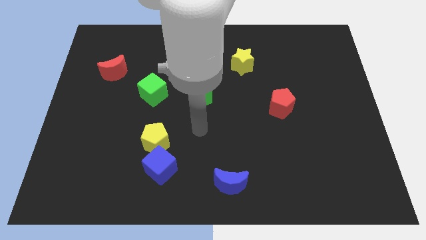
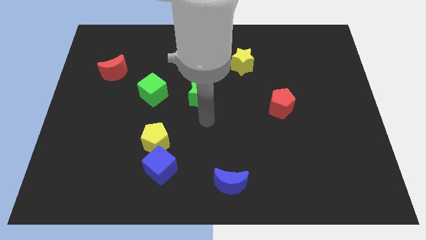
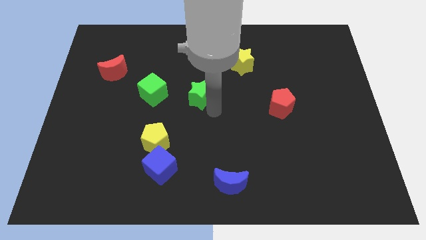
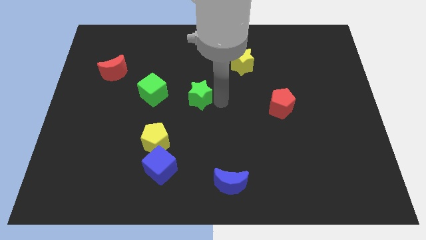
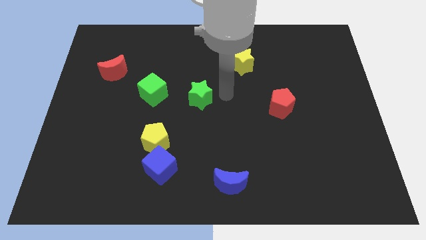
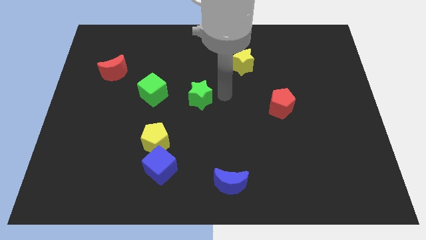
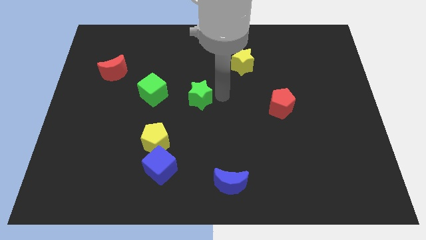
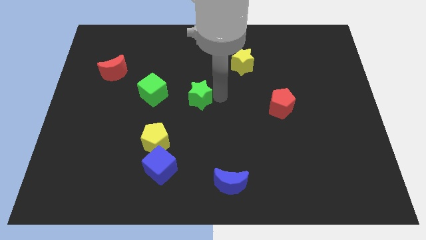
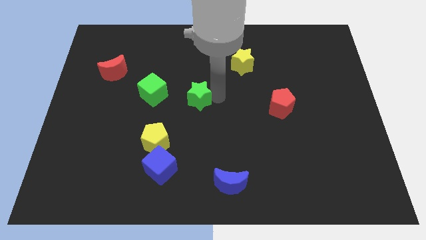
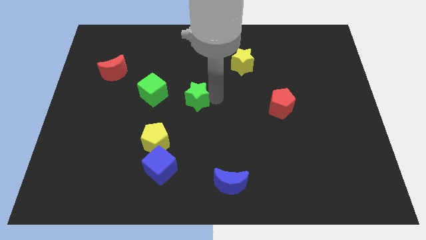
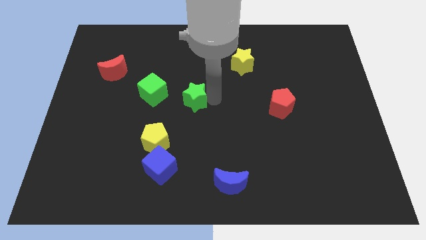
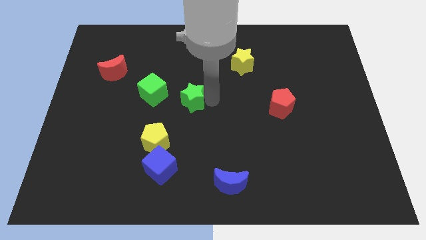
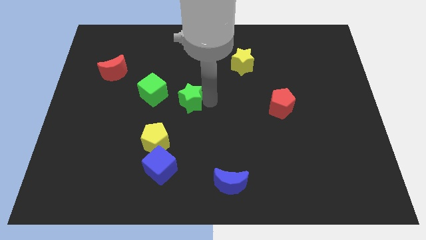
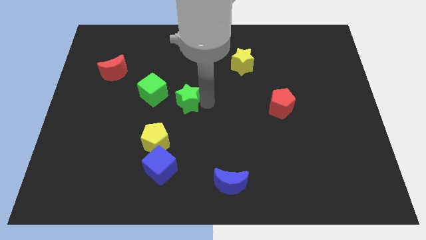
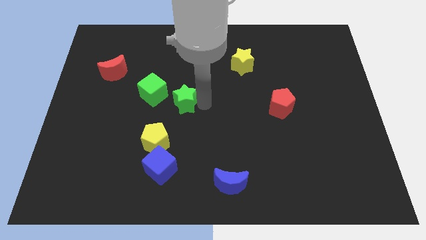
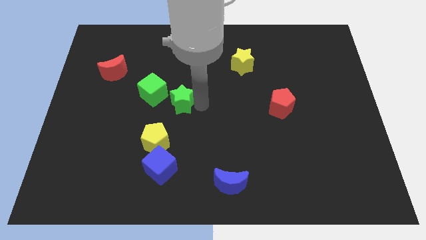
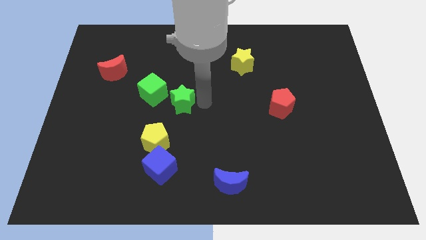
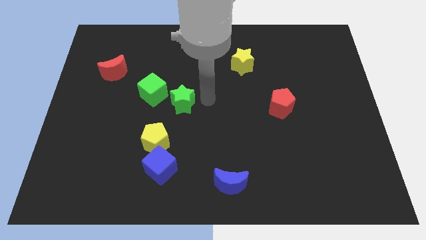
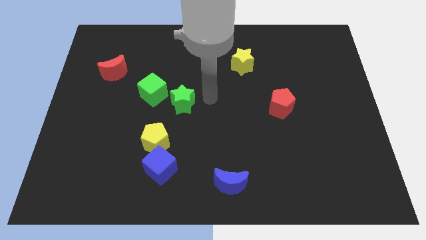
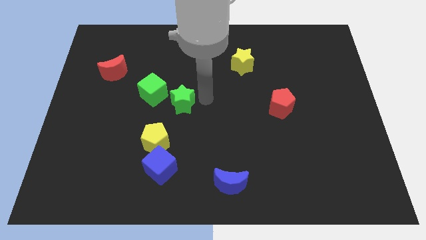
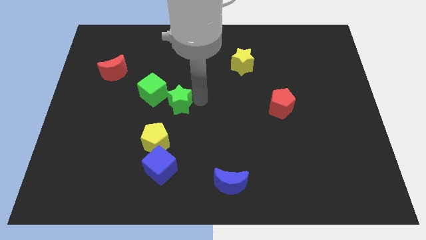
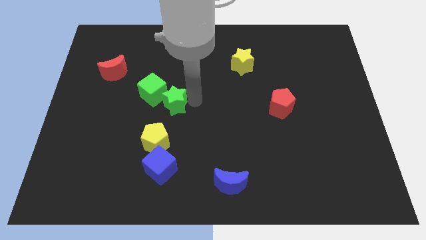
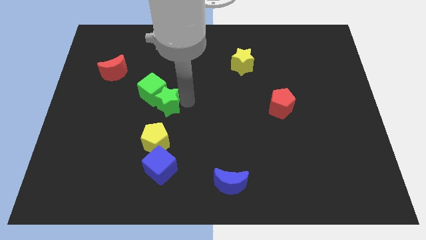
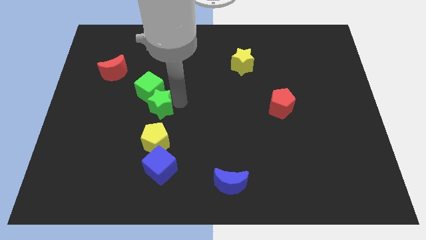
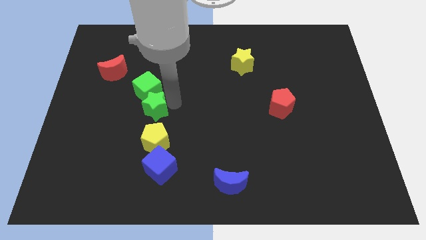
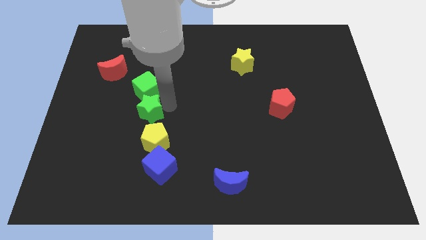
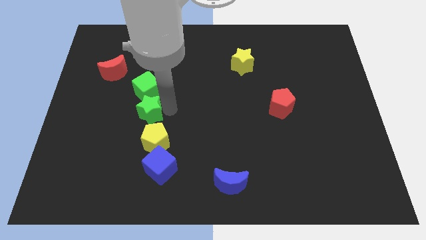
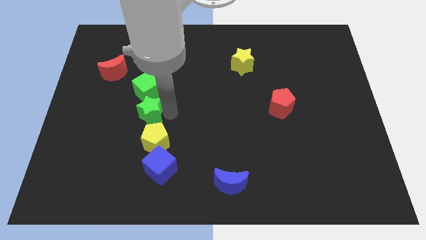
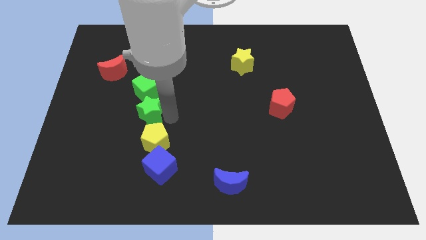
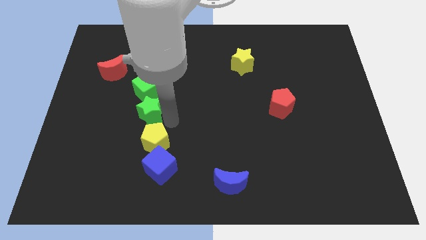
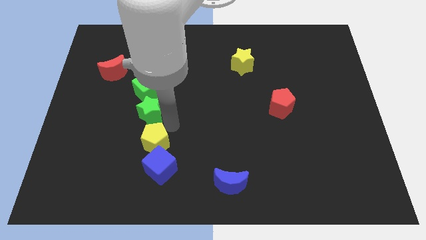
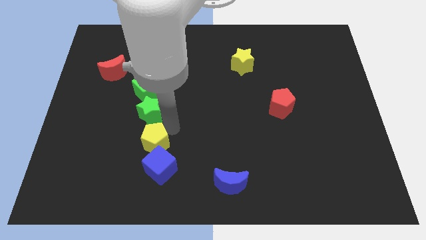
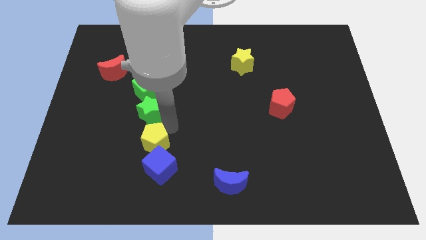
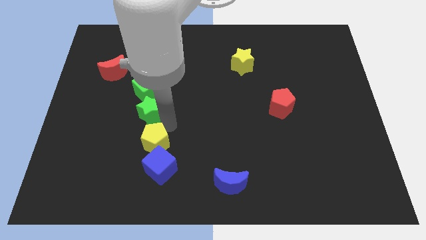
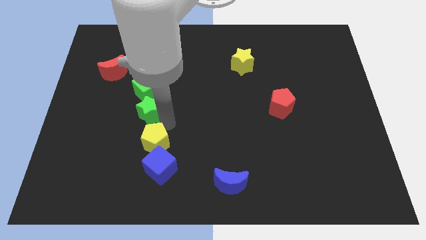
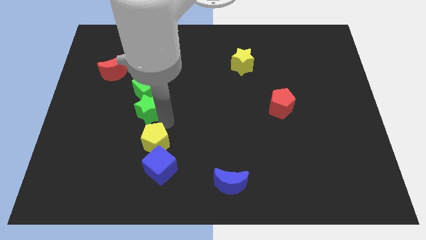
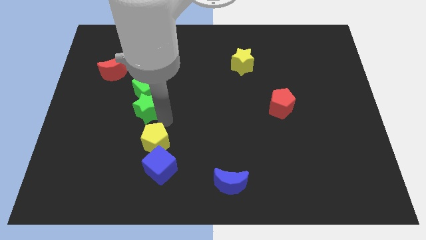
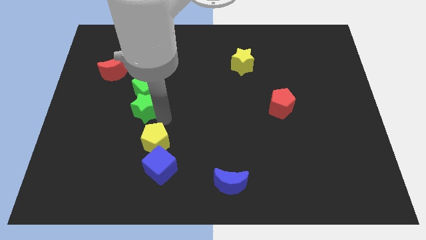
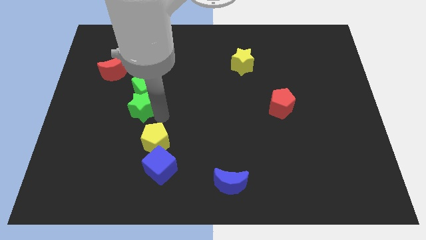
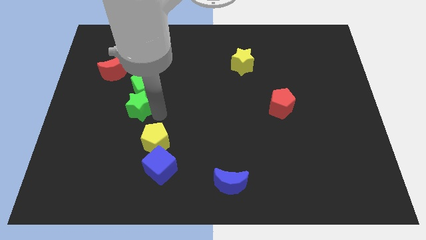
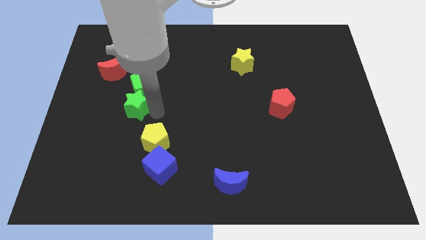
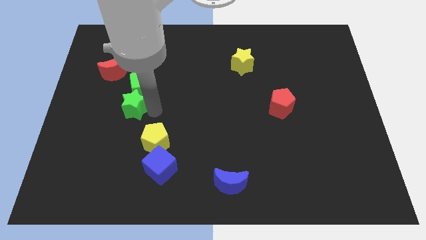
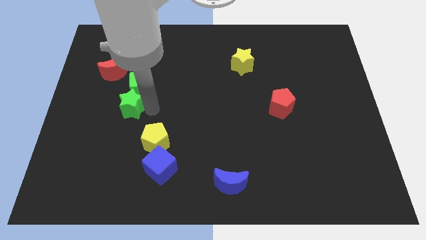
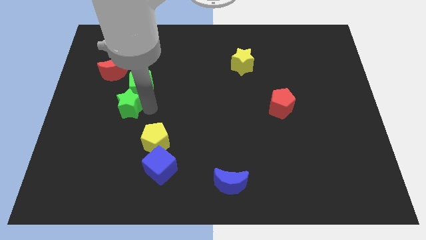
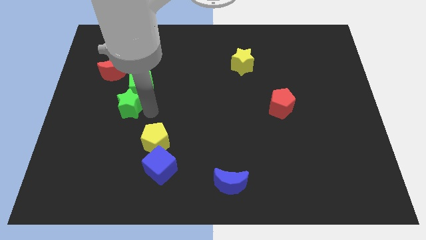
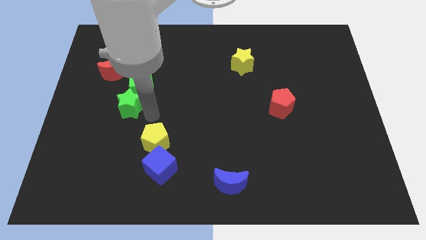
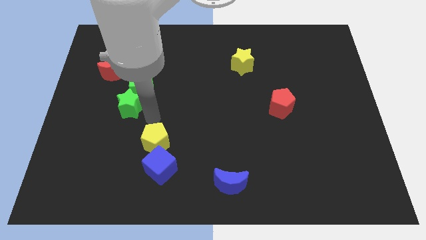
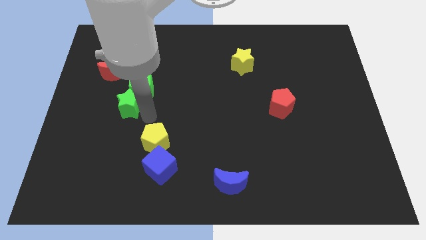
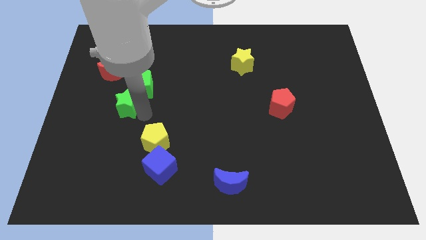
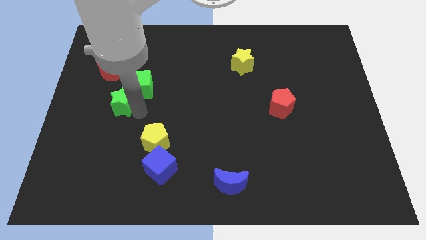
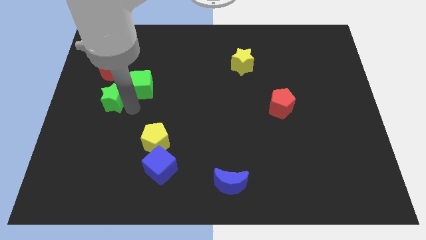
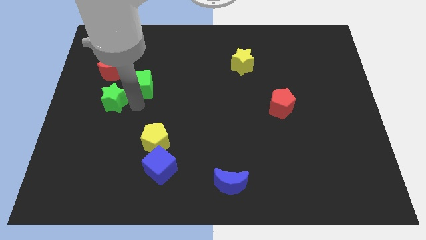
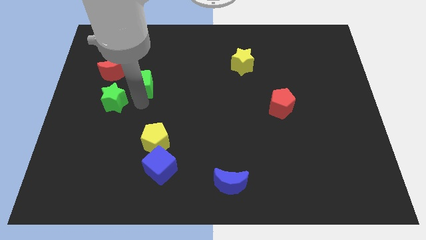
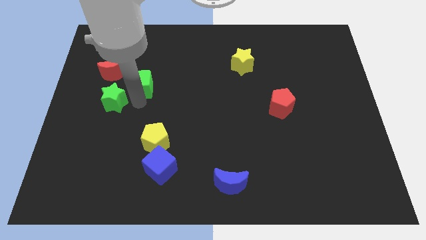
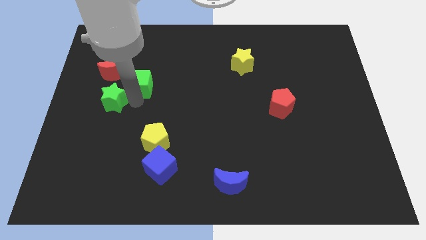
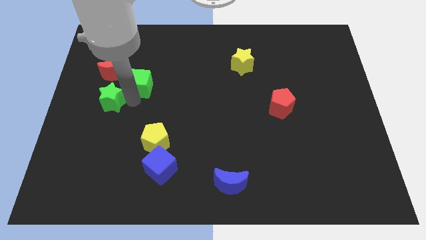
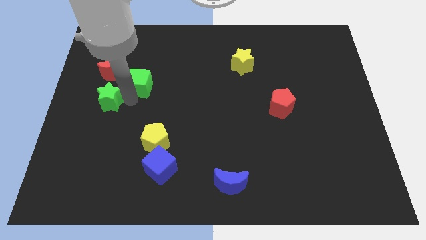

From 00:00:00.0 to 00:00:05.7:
push the green star to the left side
